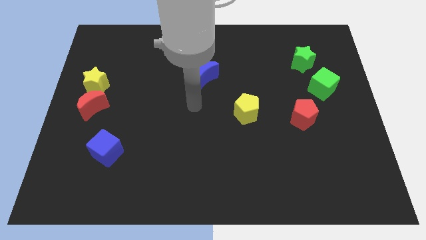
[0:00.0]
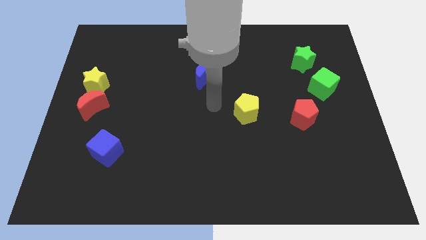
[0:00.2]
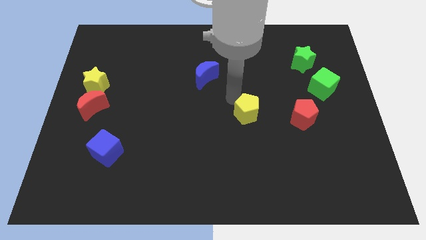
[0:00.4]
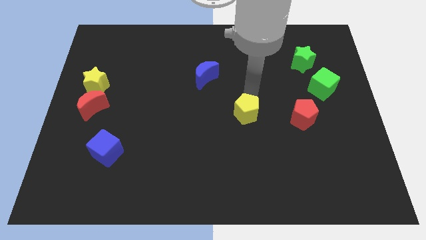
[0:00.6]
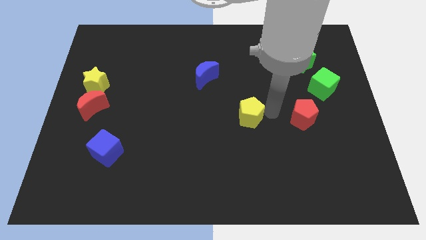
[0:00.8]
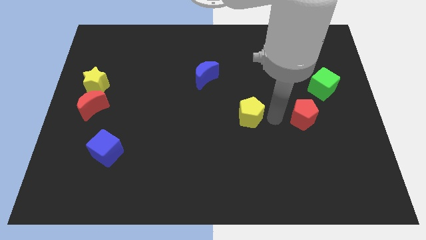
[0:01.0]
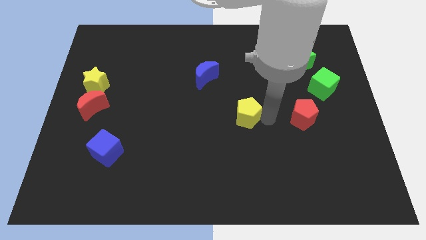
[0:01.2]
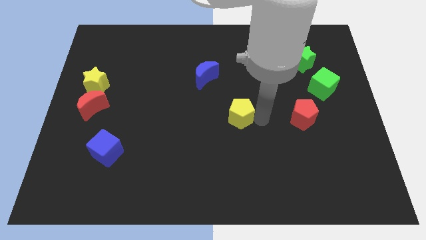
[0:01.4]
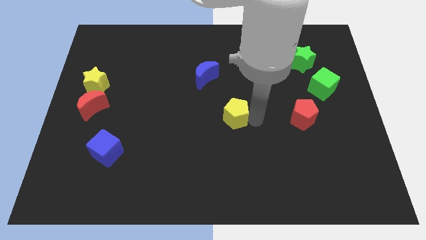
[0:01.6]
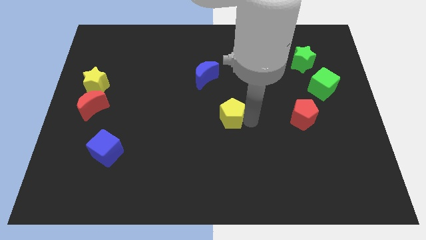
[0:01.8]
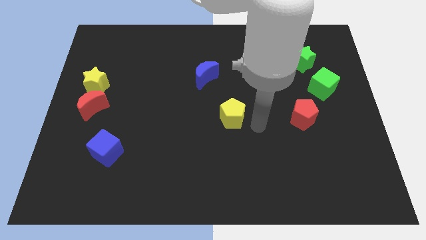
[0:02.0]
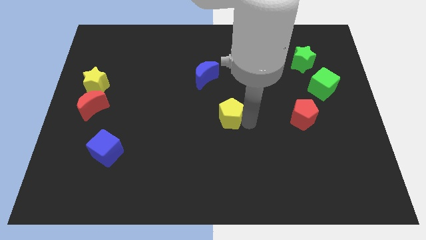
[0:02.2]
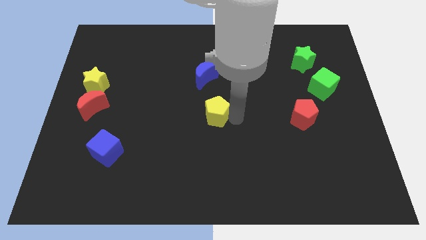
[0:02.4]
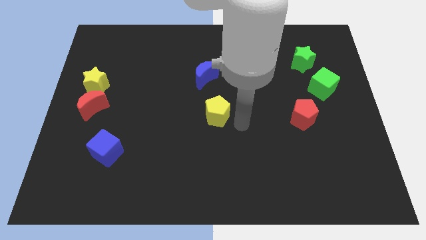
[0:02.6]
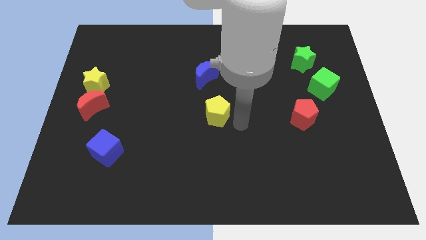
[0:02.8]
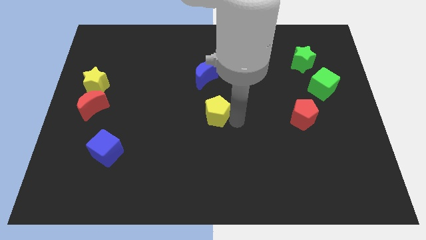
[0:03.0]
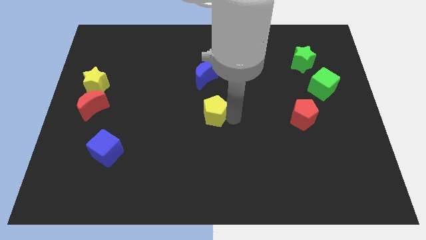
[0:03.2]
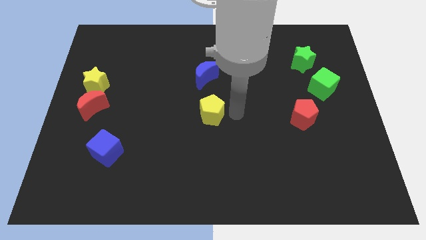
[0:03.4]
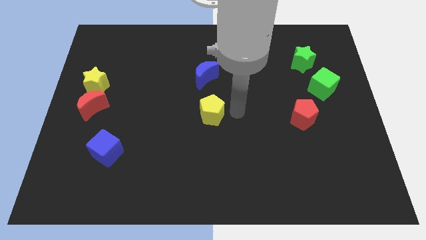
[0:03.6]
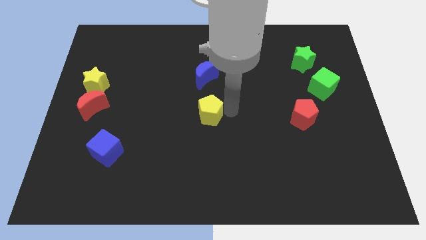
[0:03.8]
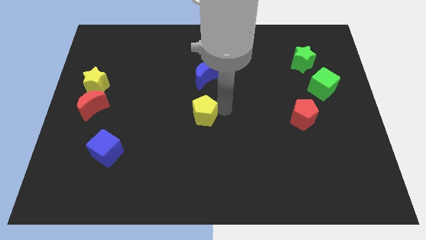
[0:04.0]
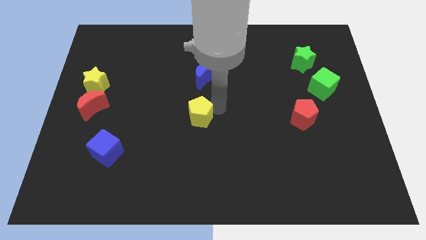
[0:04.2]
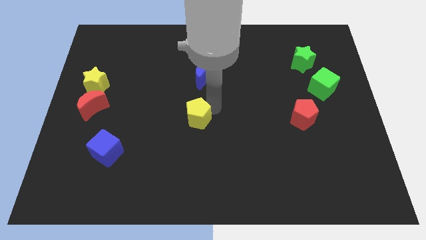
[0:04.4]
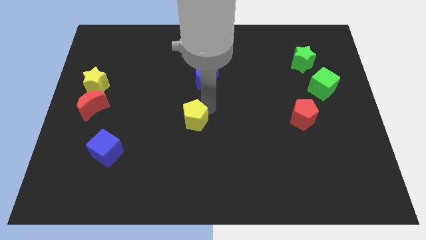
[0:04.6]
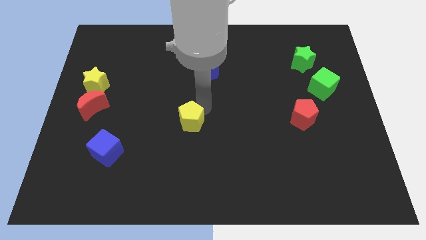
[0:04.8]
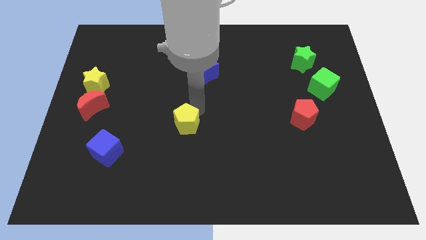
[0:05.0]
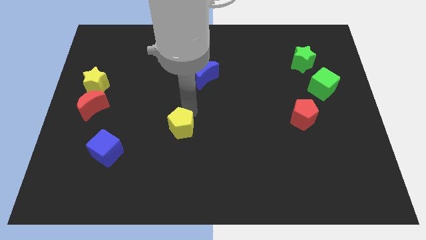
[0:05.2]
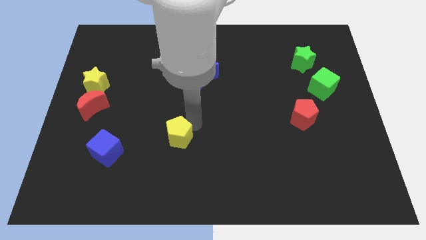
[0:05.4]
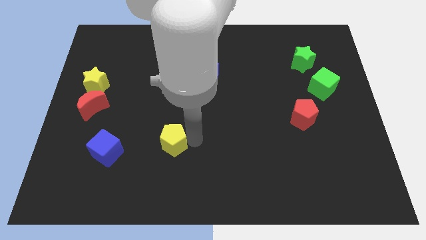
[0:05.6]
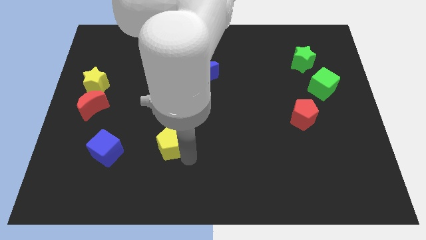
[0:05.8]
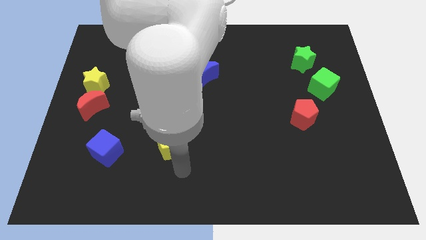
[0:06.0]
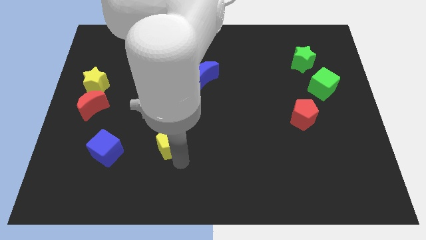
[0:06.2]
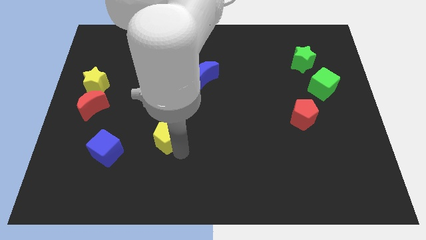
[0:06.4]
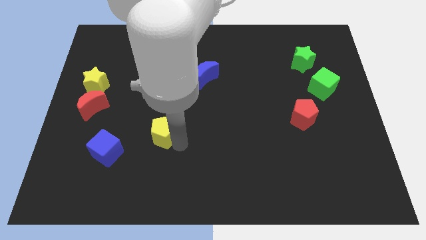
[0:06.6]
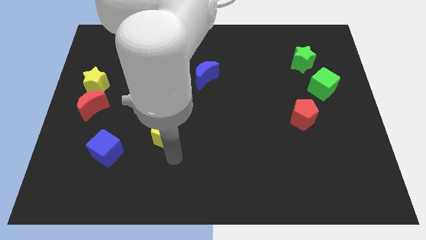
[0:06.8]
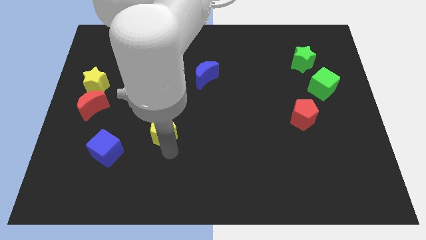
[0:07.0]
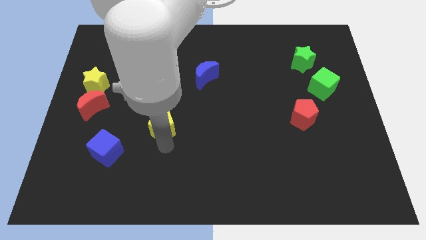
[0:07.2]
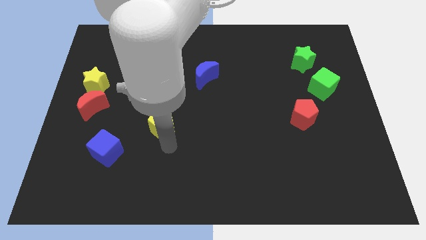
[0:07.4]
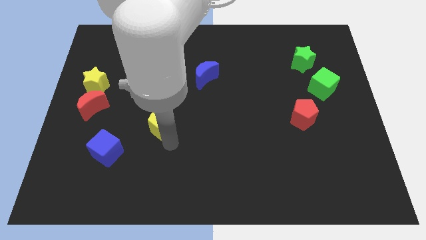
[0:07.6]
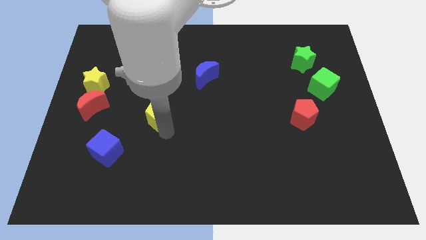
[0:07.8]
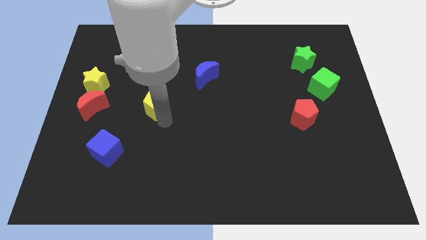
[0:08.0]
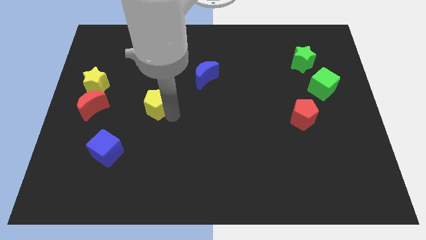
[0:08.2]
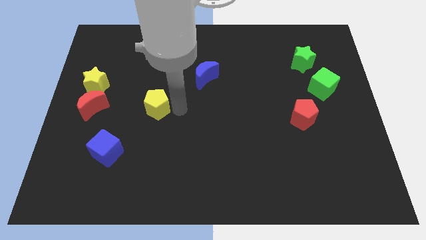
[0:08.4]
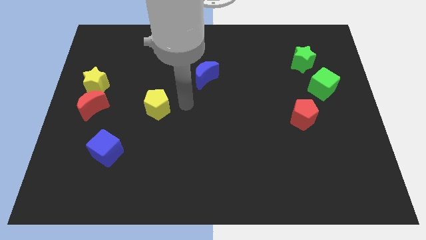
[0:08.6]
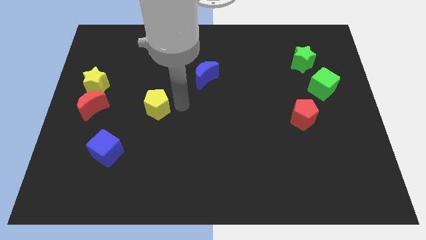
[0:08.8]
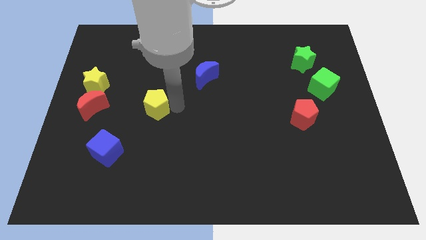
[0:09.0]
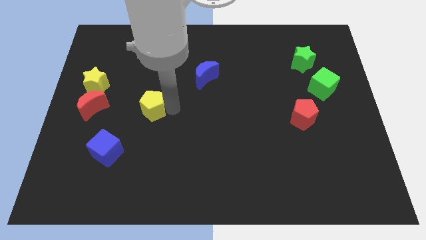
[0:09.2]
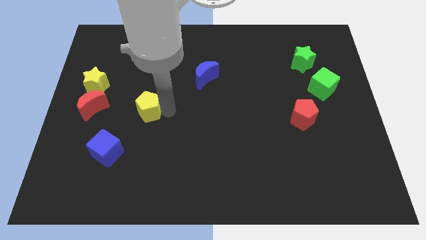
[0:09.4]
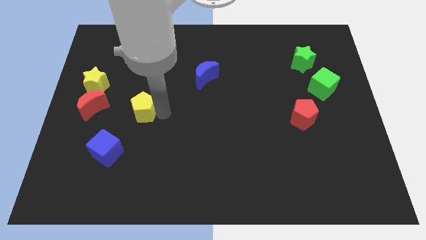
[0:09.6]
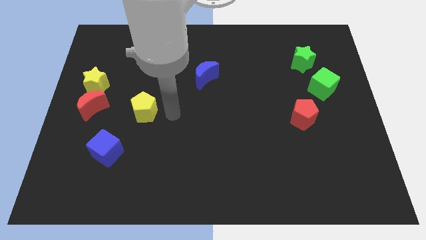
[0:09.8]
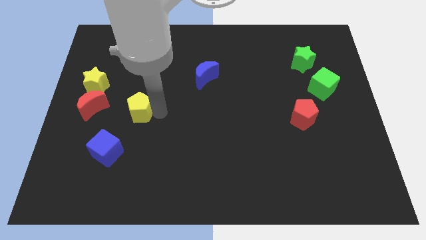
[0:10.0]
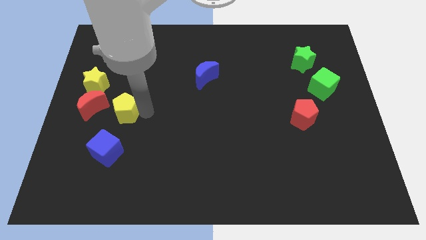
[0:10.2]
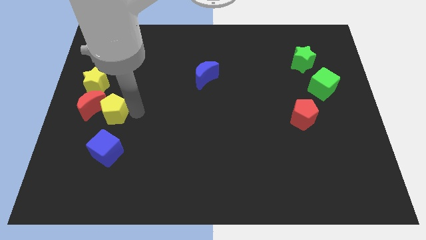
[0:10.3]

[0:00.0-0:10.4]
push the yellow pentagon next to the red moon

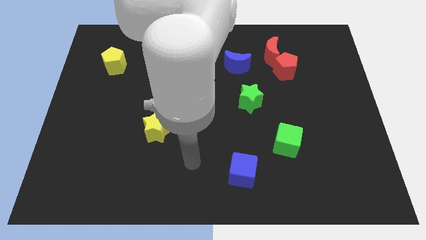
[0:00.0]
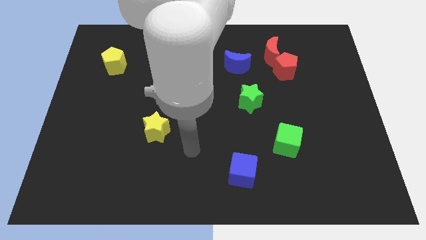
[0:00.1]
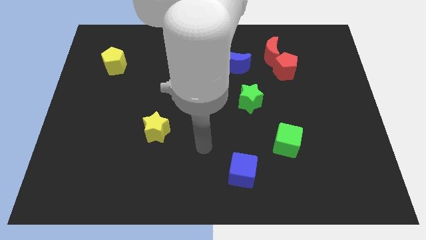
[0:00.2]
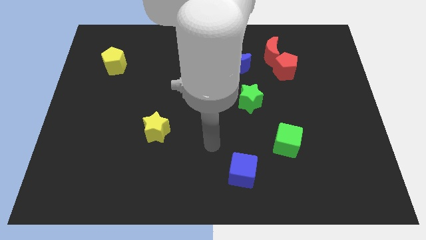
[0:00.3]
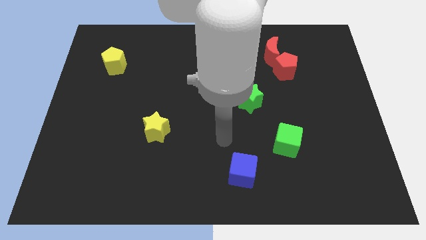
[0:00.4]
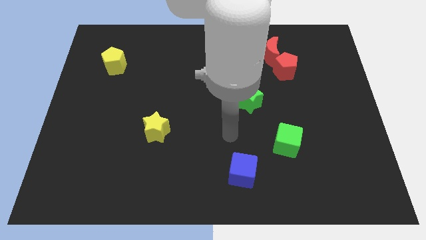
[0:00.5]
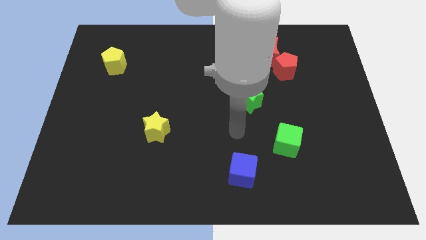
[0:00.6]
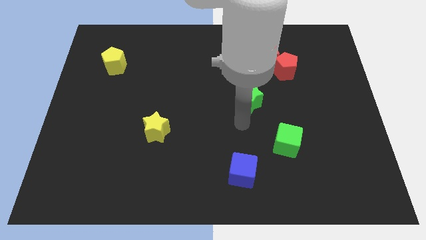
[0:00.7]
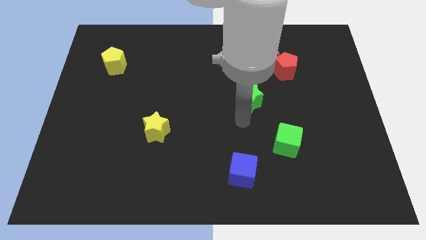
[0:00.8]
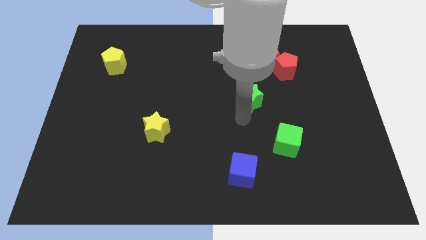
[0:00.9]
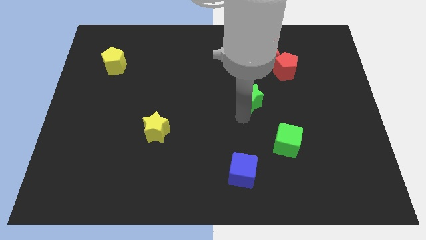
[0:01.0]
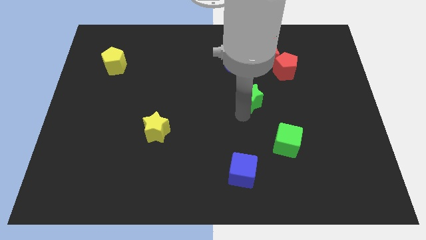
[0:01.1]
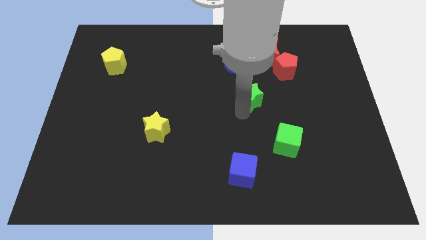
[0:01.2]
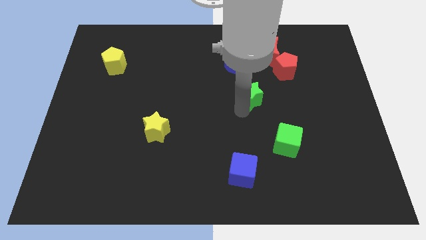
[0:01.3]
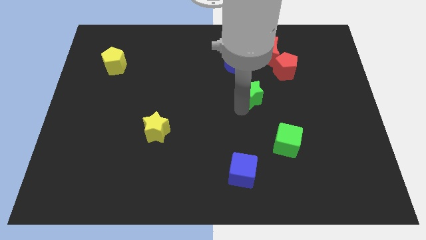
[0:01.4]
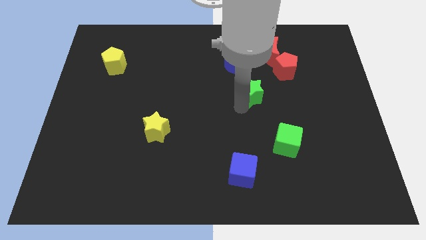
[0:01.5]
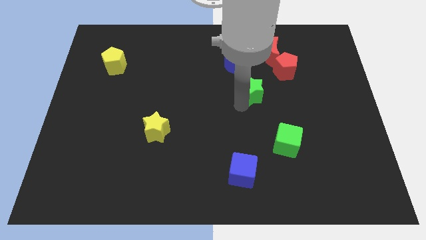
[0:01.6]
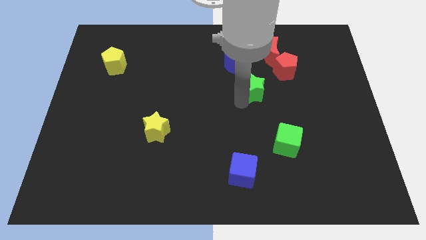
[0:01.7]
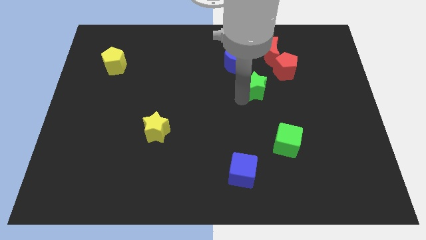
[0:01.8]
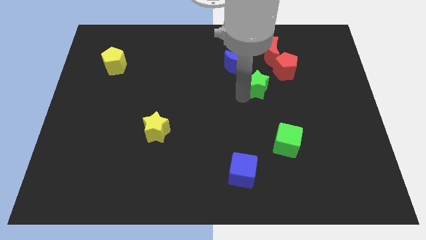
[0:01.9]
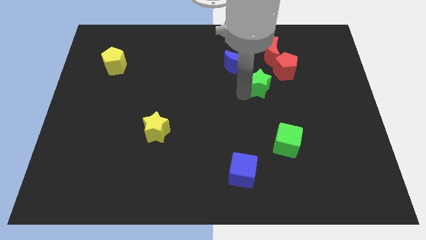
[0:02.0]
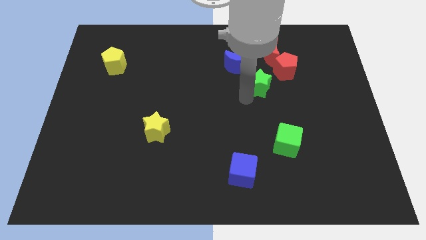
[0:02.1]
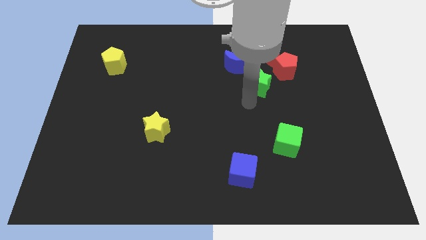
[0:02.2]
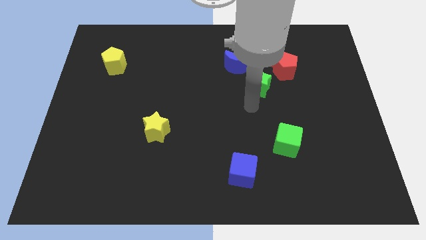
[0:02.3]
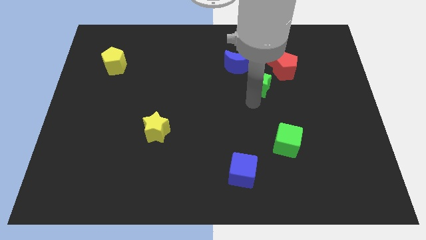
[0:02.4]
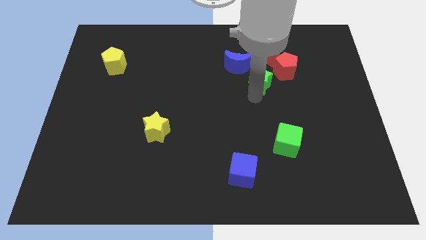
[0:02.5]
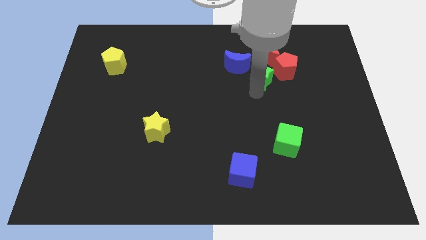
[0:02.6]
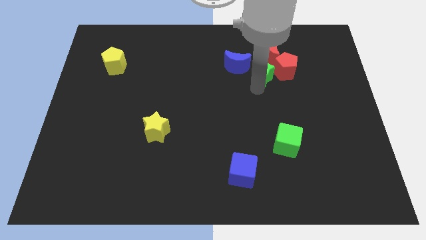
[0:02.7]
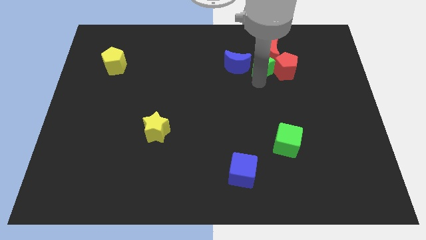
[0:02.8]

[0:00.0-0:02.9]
push the green star to the red moon
